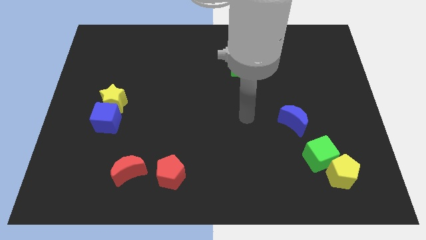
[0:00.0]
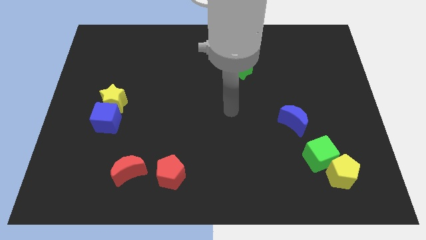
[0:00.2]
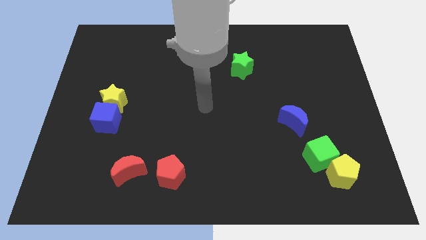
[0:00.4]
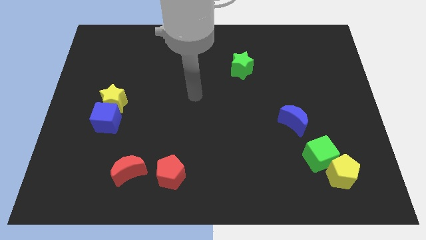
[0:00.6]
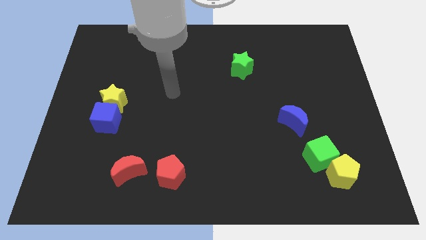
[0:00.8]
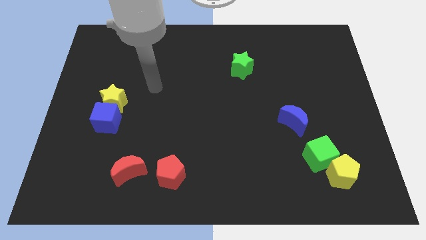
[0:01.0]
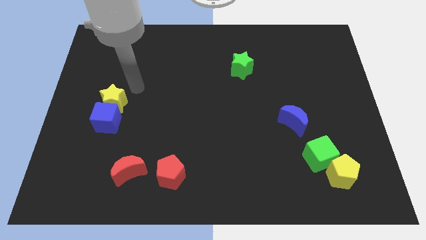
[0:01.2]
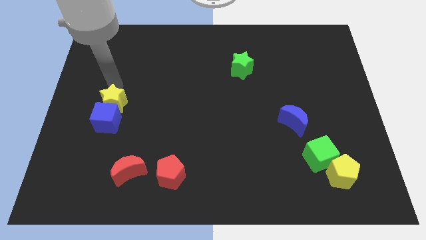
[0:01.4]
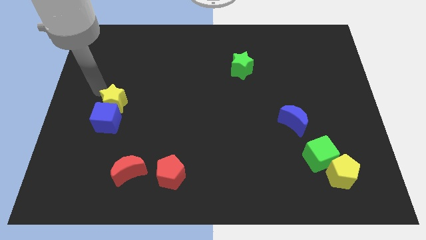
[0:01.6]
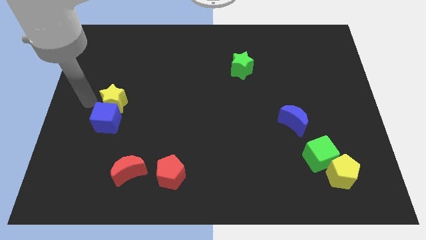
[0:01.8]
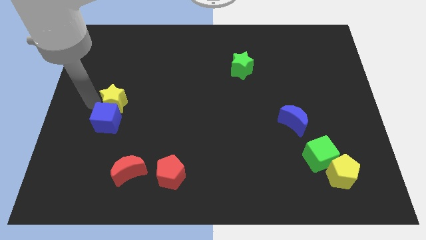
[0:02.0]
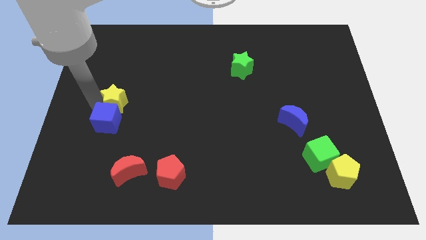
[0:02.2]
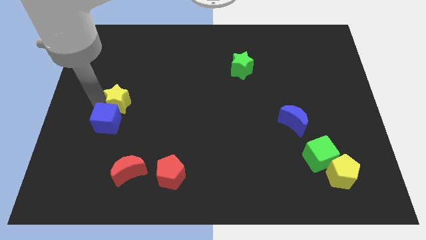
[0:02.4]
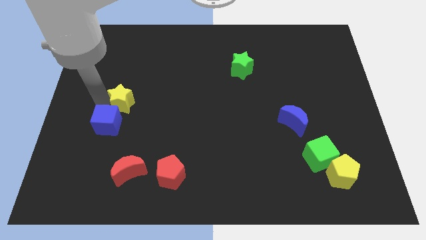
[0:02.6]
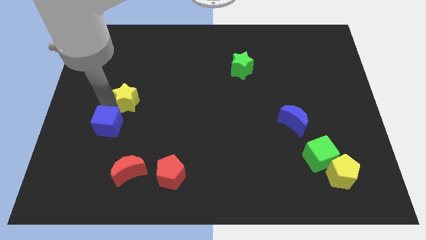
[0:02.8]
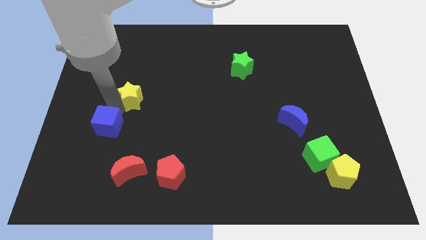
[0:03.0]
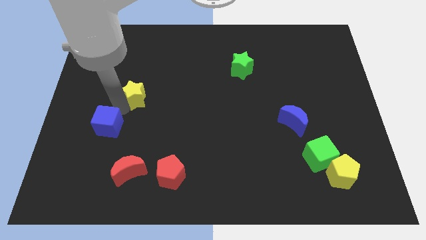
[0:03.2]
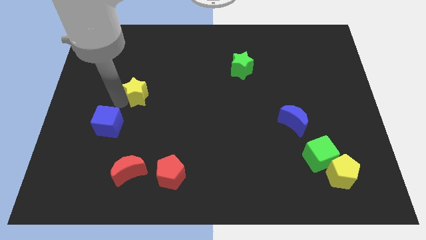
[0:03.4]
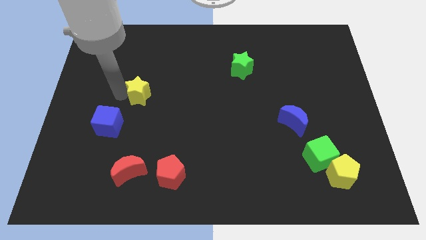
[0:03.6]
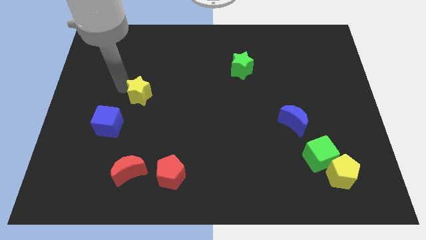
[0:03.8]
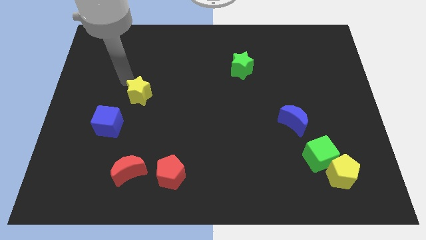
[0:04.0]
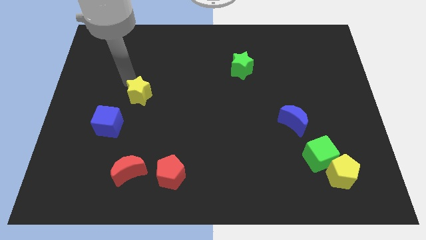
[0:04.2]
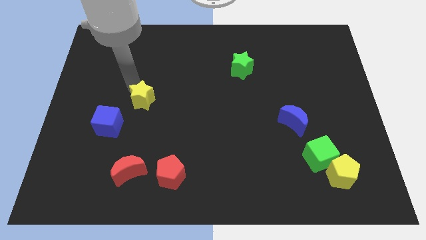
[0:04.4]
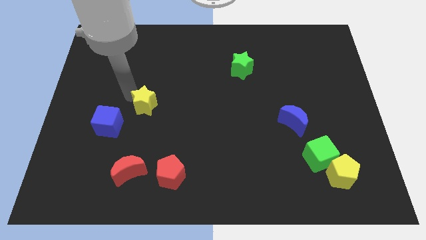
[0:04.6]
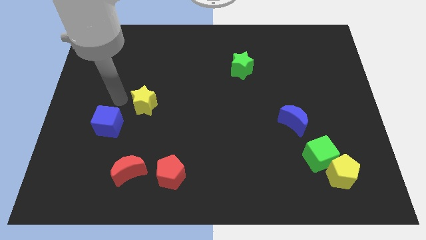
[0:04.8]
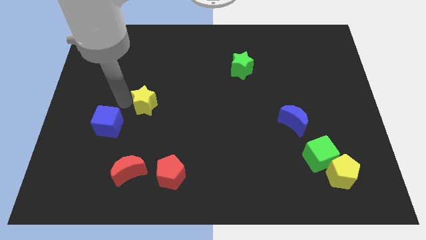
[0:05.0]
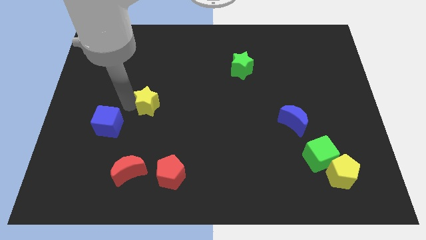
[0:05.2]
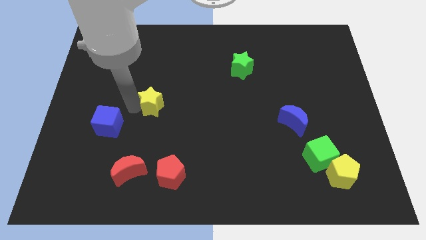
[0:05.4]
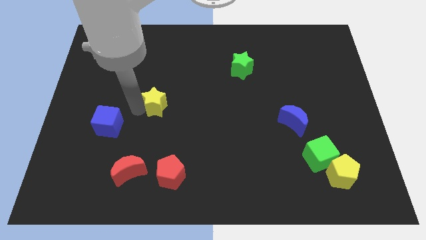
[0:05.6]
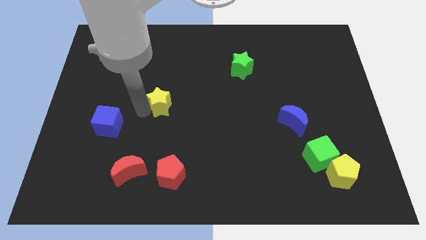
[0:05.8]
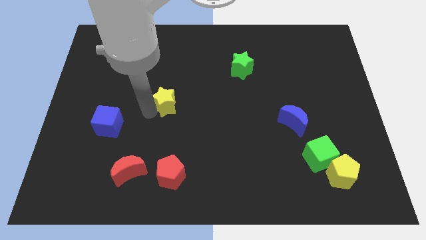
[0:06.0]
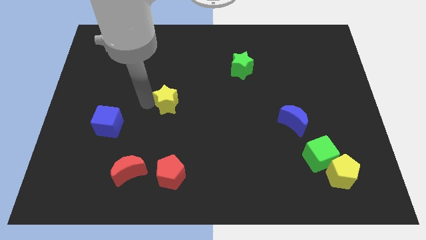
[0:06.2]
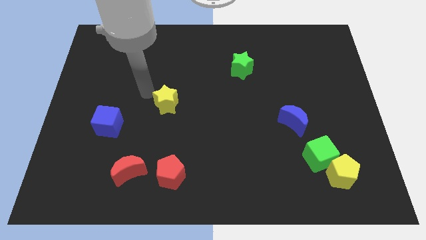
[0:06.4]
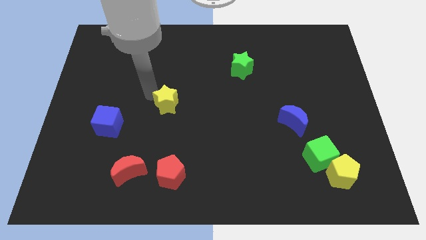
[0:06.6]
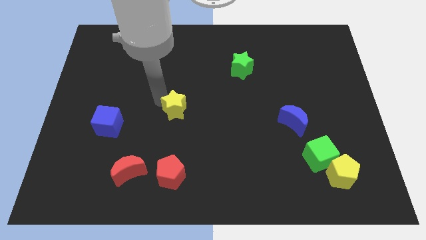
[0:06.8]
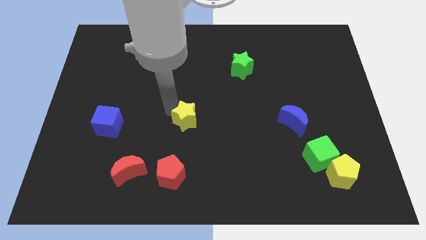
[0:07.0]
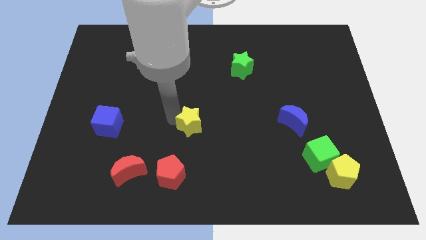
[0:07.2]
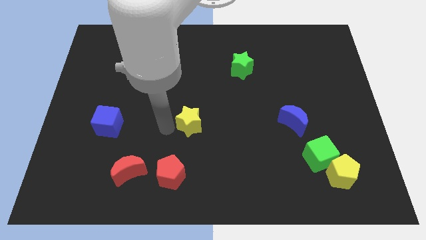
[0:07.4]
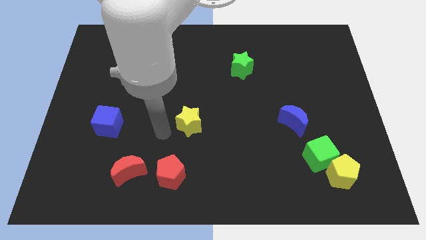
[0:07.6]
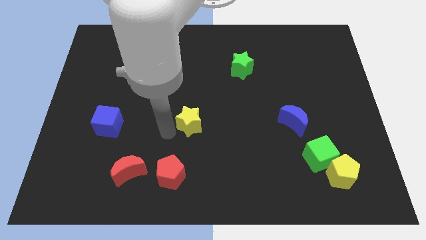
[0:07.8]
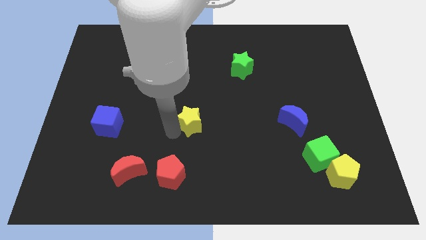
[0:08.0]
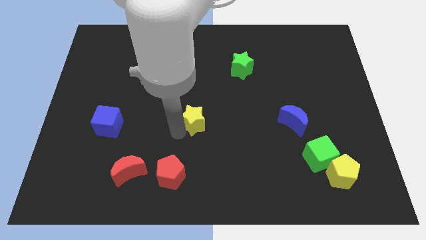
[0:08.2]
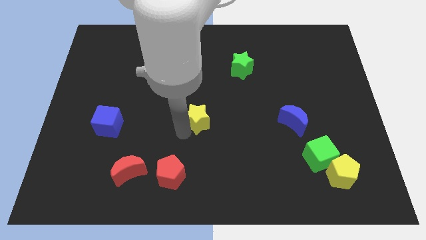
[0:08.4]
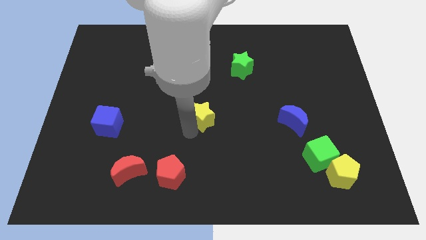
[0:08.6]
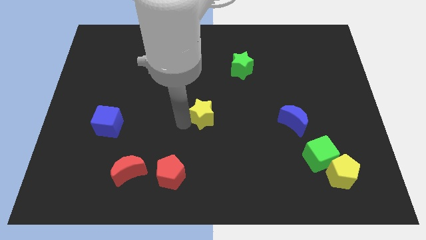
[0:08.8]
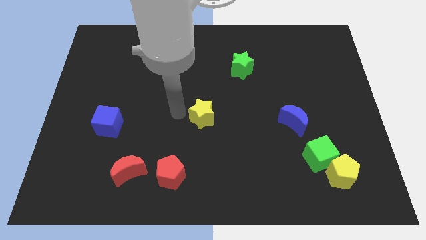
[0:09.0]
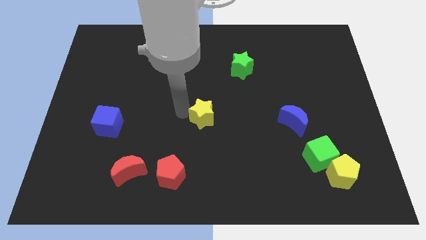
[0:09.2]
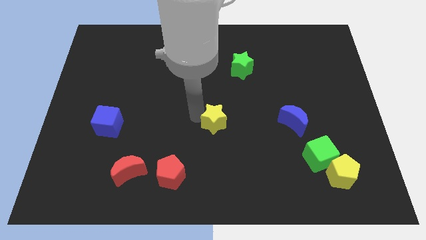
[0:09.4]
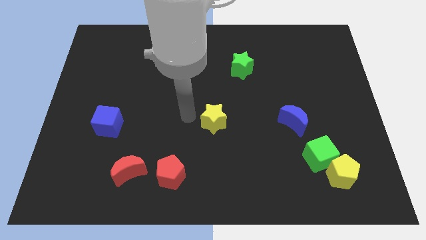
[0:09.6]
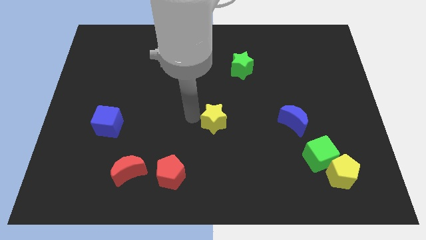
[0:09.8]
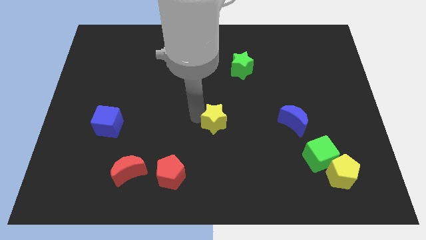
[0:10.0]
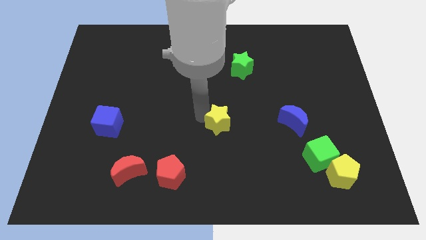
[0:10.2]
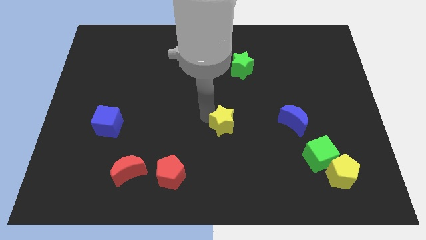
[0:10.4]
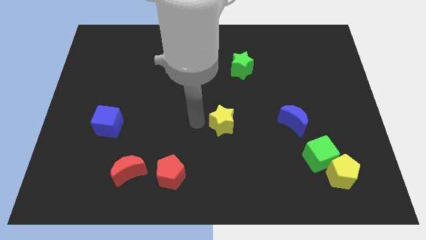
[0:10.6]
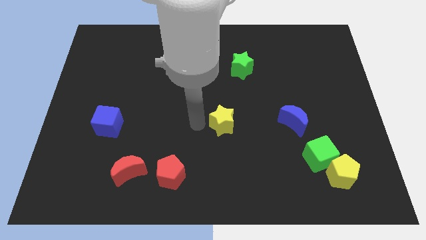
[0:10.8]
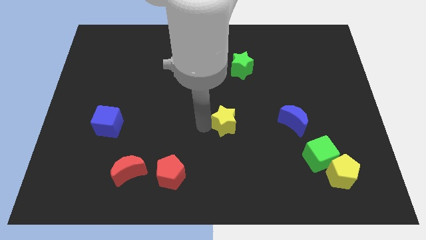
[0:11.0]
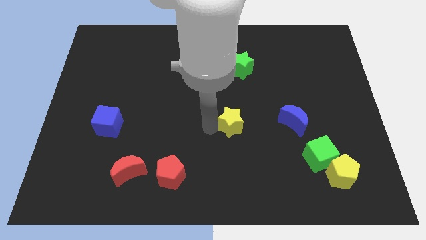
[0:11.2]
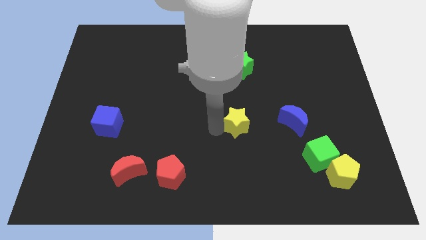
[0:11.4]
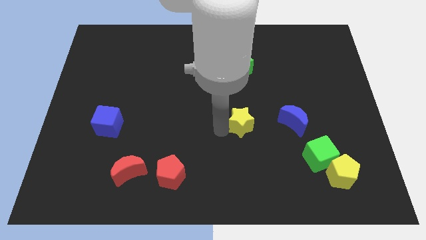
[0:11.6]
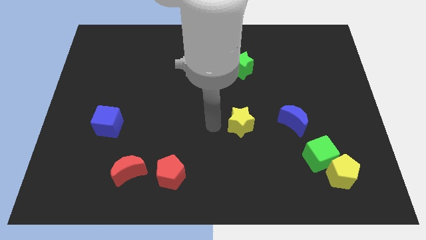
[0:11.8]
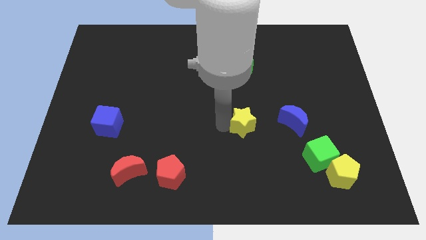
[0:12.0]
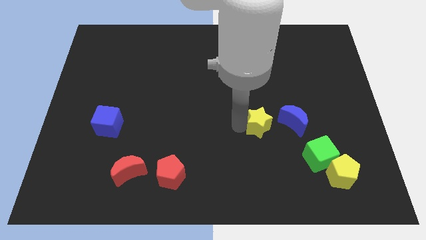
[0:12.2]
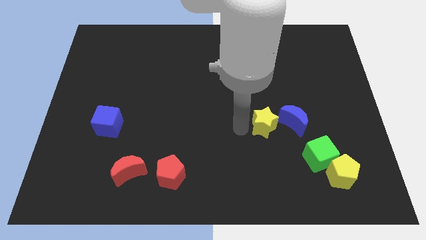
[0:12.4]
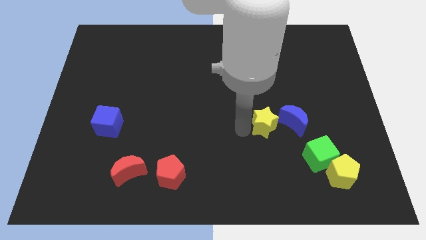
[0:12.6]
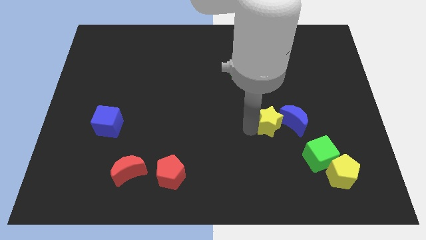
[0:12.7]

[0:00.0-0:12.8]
move the yellow star next to the blue moon
